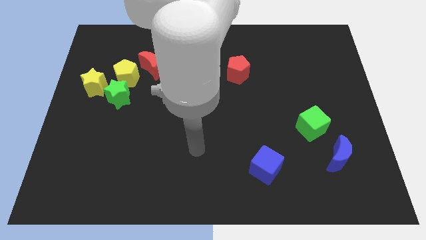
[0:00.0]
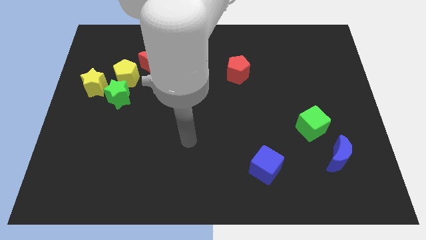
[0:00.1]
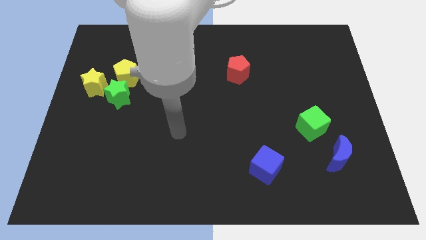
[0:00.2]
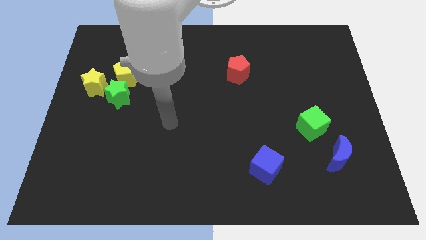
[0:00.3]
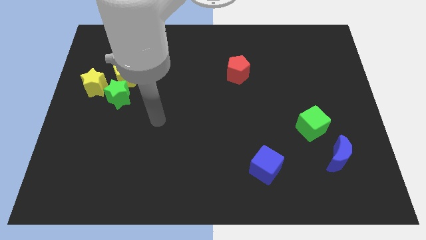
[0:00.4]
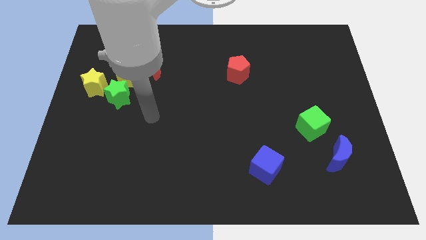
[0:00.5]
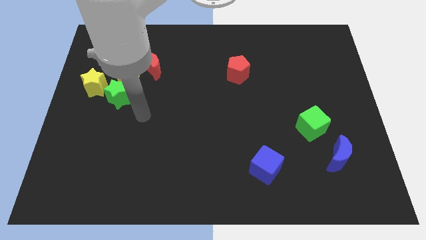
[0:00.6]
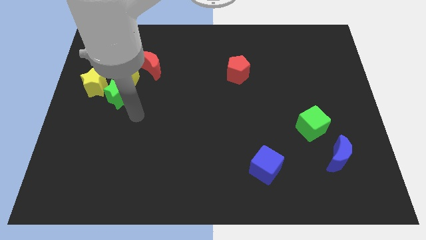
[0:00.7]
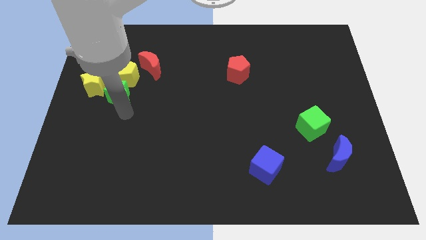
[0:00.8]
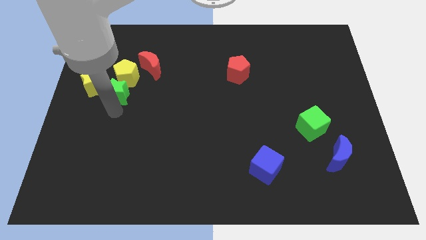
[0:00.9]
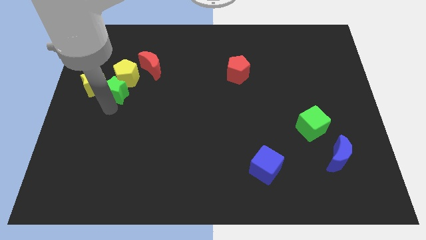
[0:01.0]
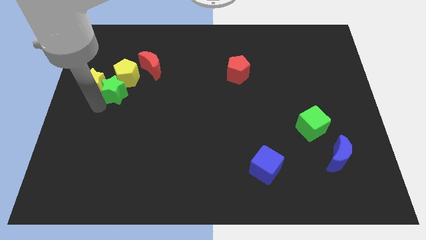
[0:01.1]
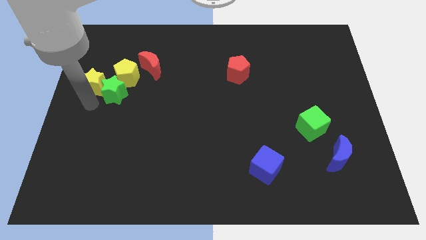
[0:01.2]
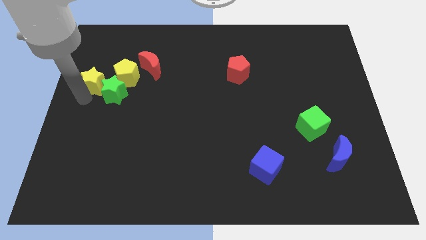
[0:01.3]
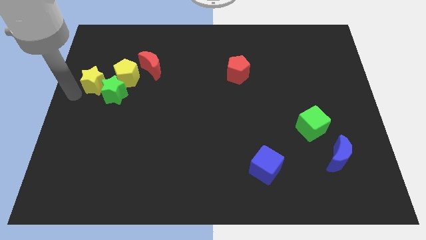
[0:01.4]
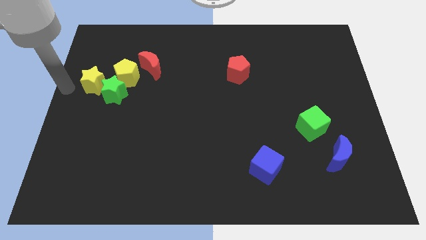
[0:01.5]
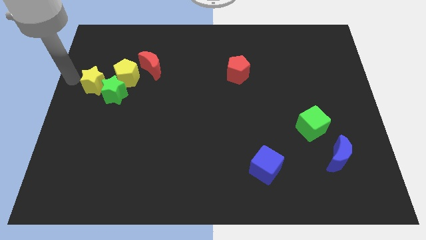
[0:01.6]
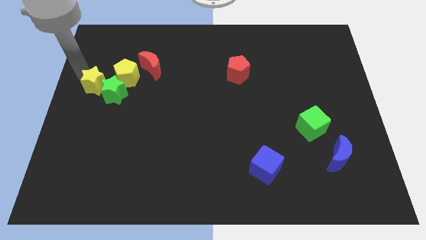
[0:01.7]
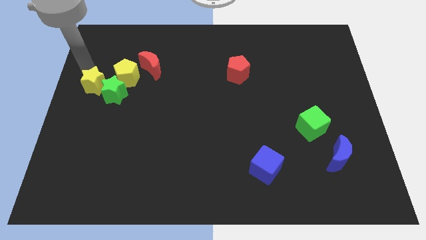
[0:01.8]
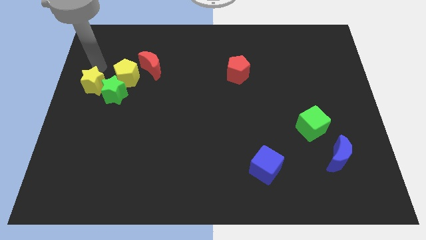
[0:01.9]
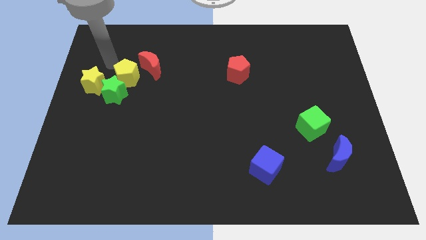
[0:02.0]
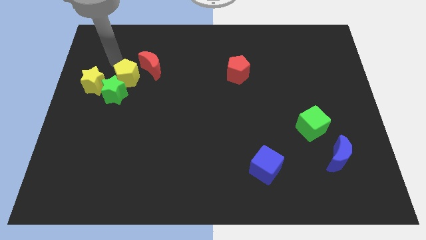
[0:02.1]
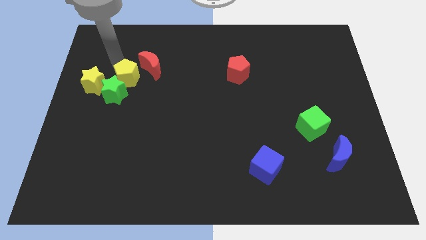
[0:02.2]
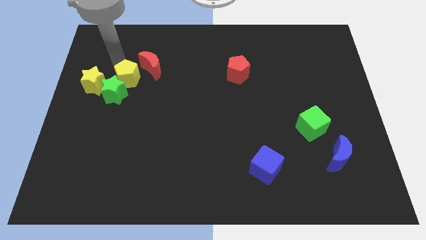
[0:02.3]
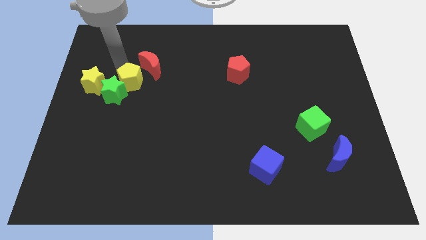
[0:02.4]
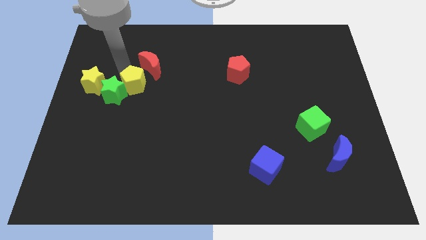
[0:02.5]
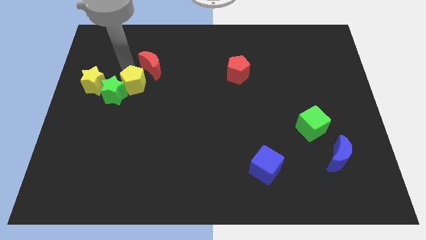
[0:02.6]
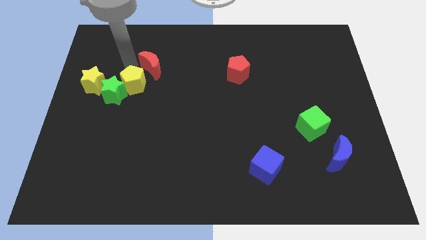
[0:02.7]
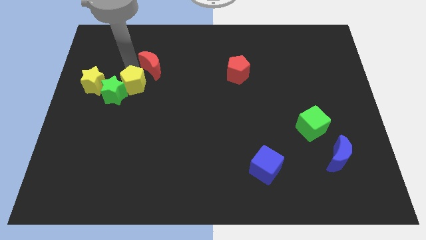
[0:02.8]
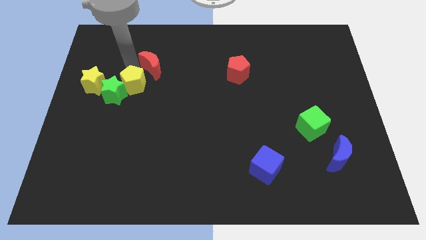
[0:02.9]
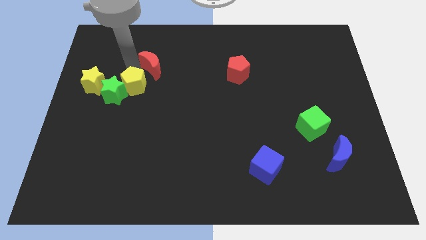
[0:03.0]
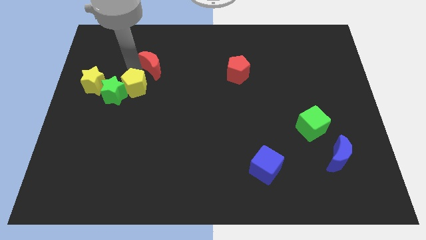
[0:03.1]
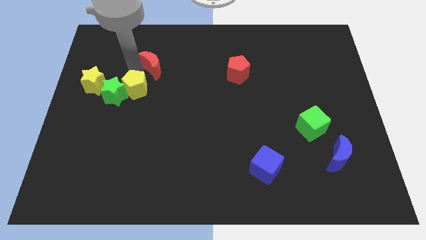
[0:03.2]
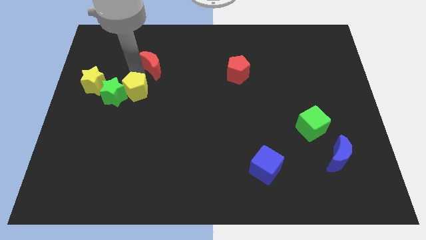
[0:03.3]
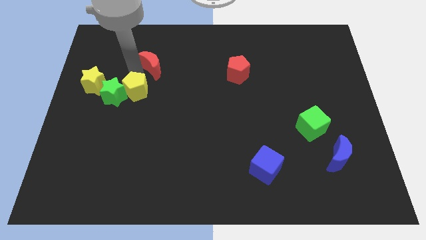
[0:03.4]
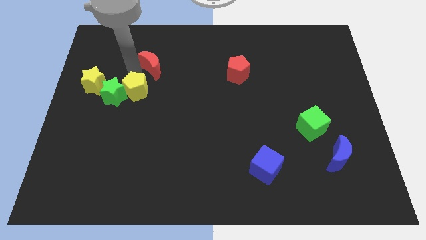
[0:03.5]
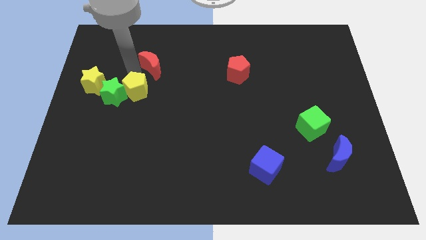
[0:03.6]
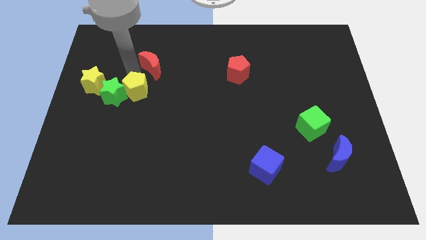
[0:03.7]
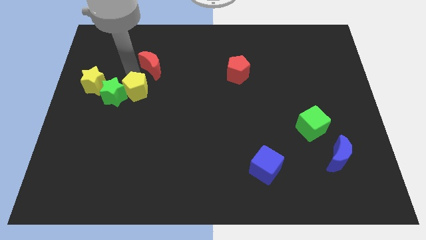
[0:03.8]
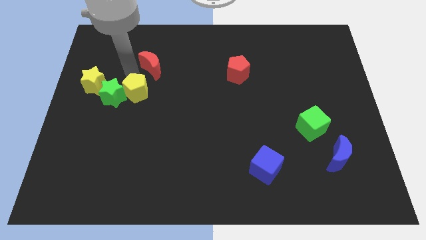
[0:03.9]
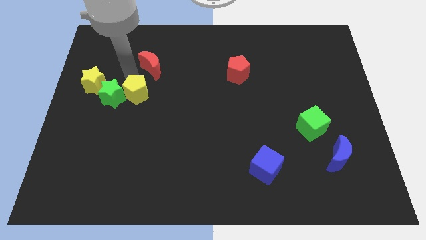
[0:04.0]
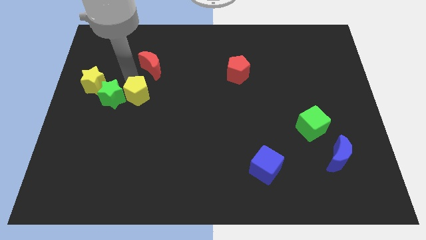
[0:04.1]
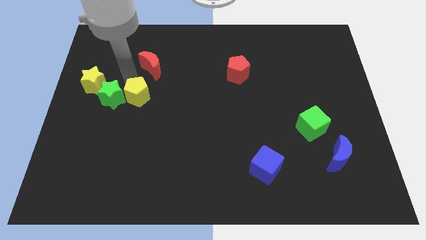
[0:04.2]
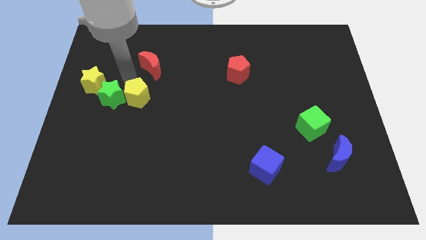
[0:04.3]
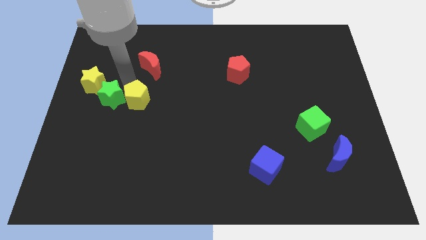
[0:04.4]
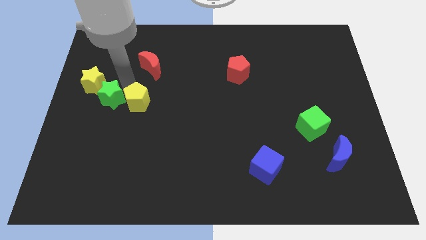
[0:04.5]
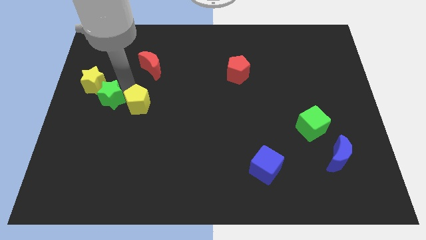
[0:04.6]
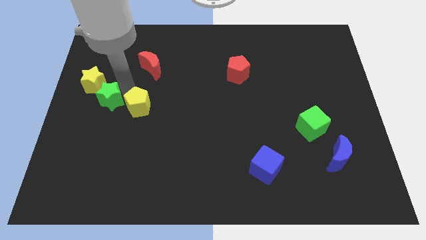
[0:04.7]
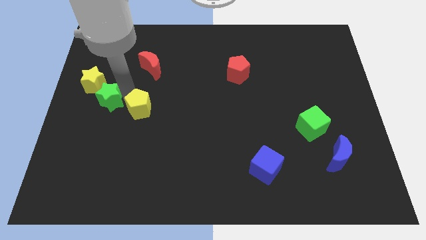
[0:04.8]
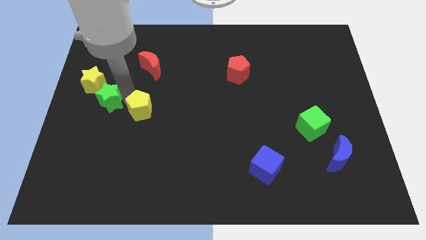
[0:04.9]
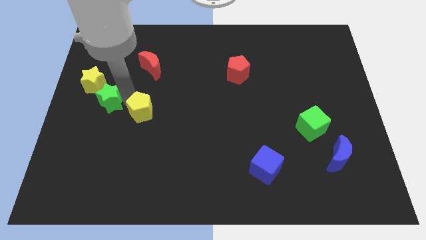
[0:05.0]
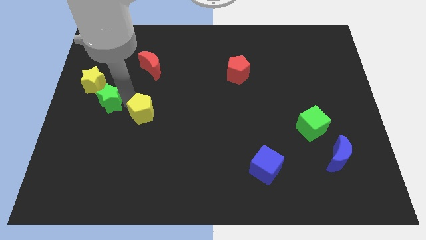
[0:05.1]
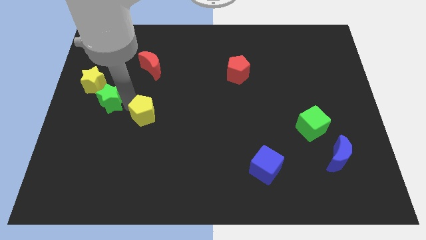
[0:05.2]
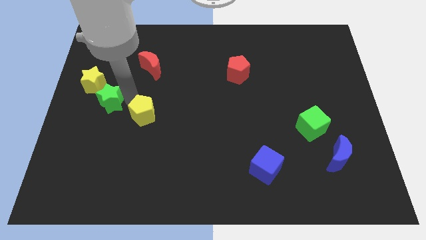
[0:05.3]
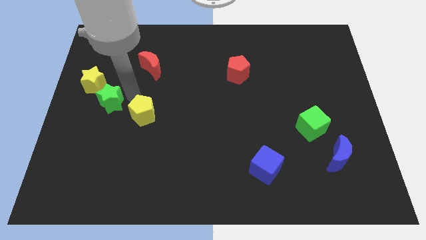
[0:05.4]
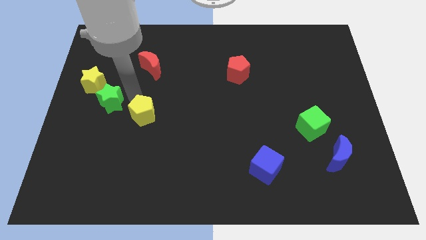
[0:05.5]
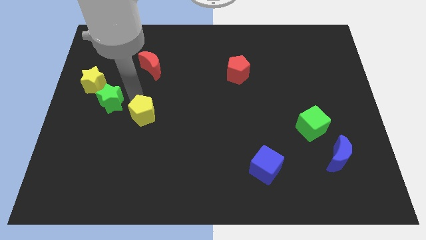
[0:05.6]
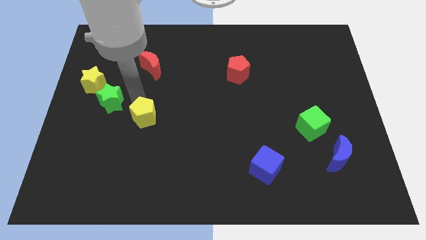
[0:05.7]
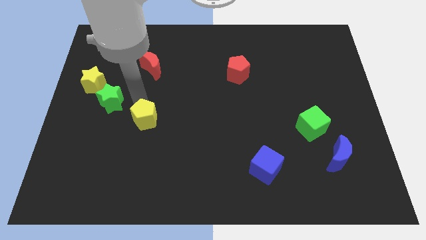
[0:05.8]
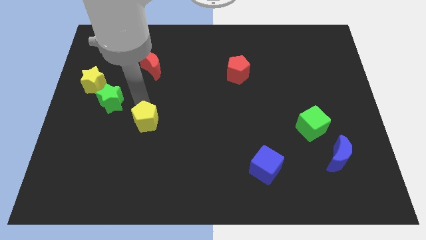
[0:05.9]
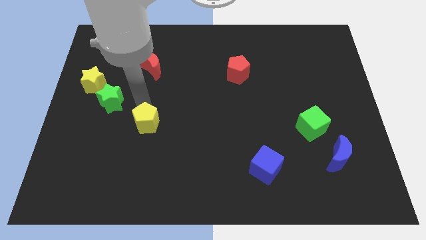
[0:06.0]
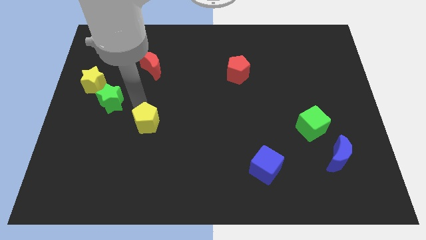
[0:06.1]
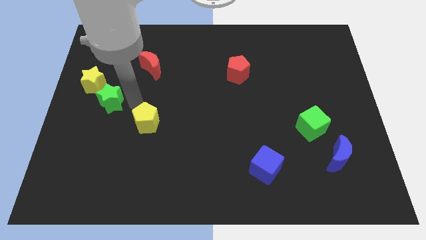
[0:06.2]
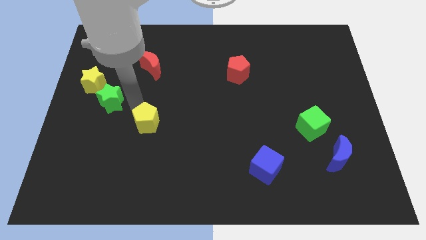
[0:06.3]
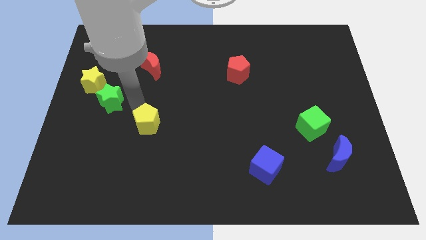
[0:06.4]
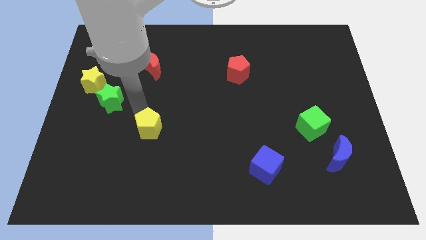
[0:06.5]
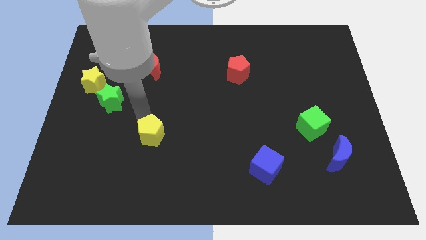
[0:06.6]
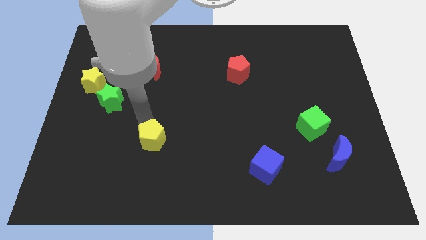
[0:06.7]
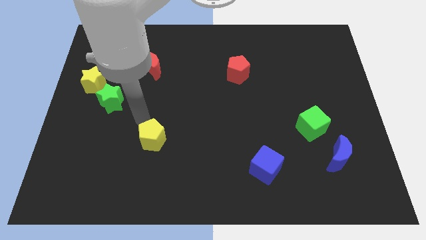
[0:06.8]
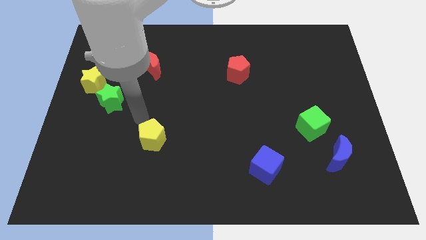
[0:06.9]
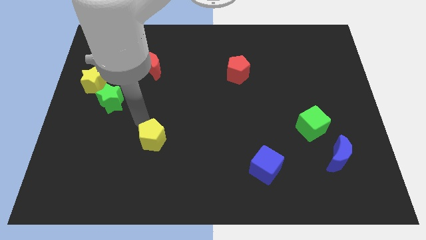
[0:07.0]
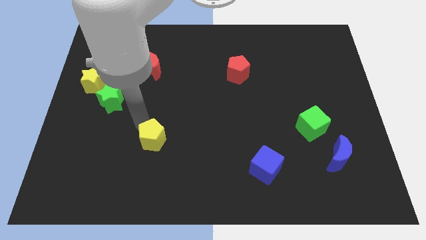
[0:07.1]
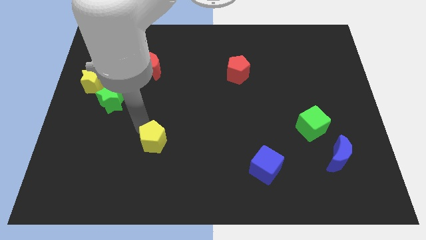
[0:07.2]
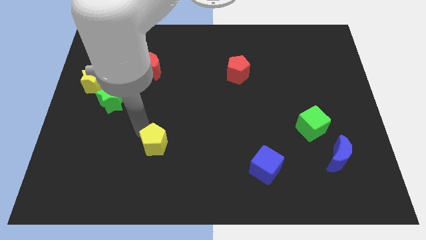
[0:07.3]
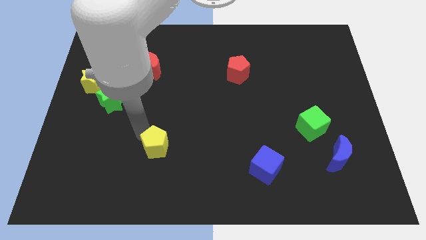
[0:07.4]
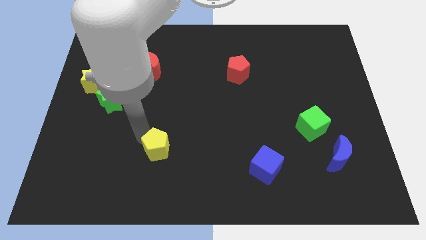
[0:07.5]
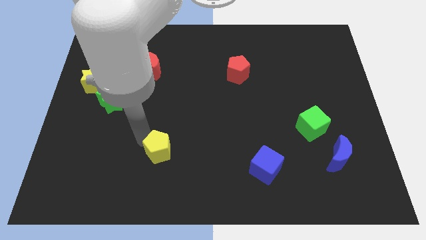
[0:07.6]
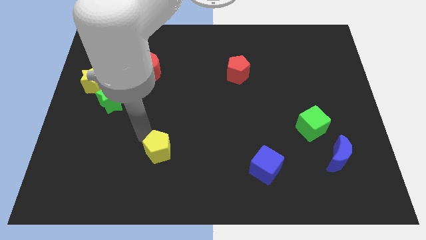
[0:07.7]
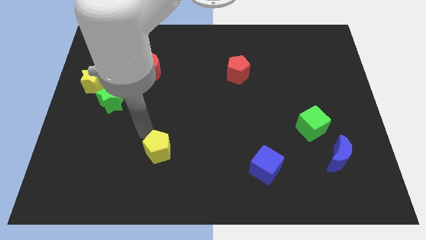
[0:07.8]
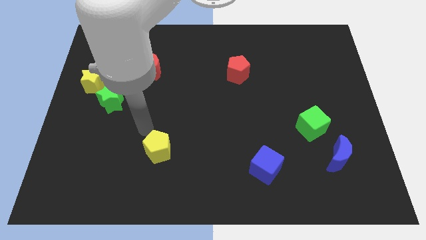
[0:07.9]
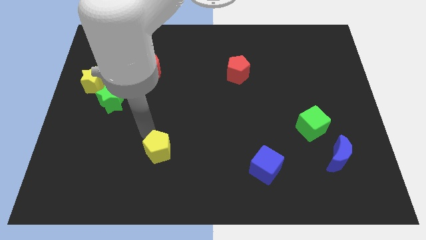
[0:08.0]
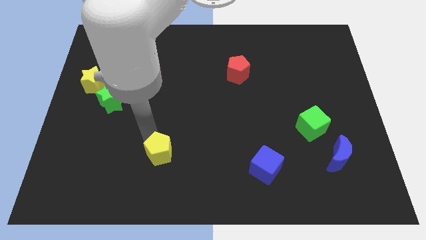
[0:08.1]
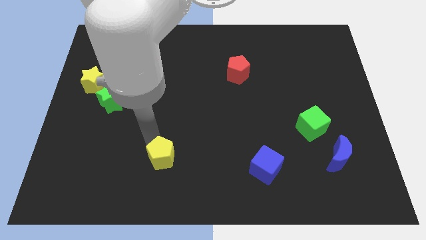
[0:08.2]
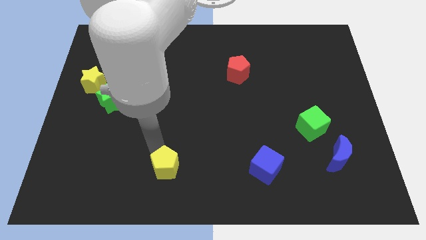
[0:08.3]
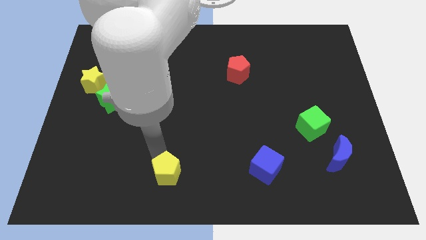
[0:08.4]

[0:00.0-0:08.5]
push the yellow pentagon to the bottom
